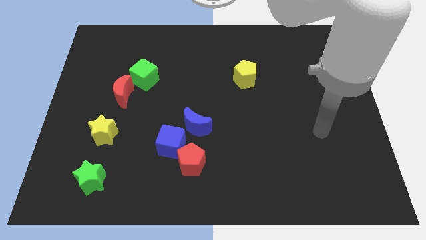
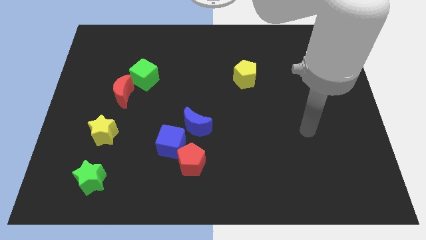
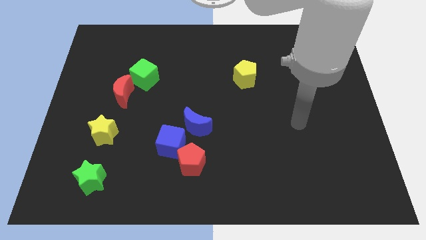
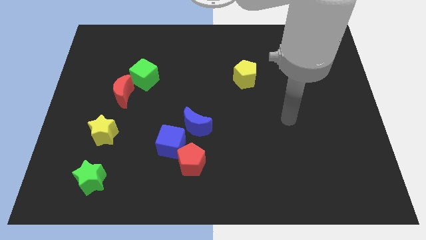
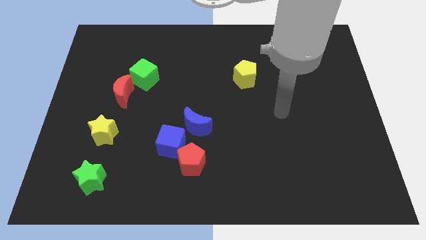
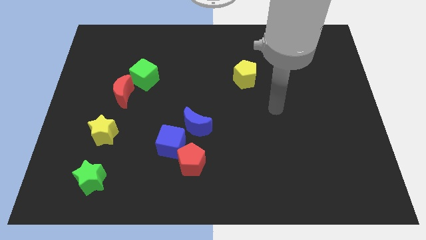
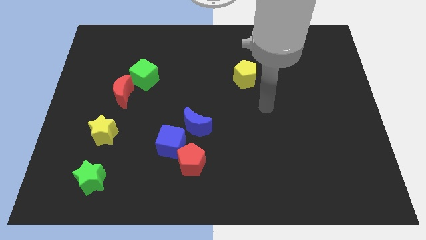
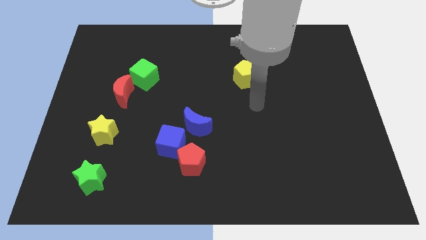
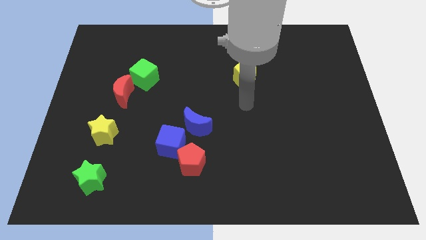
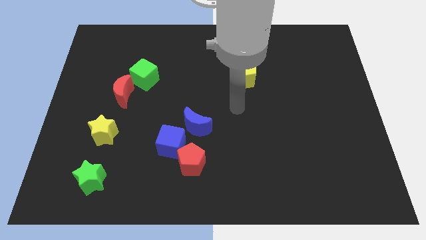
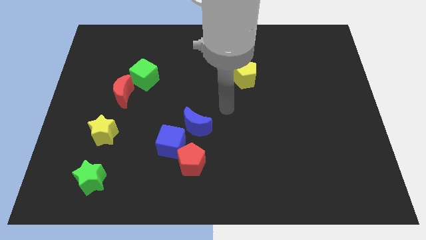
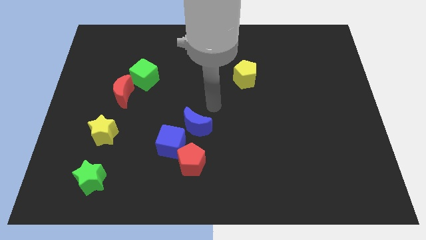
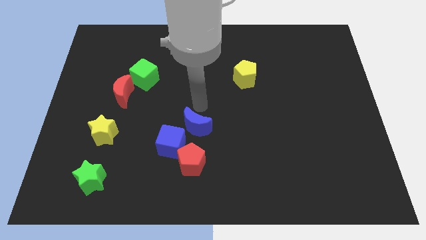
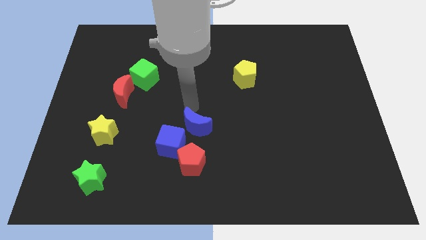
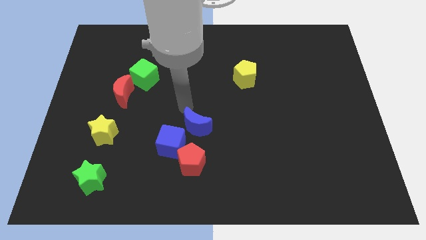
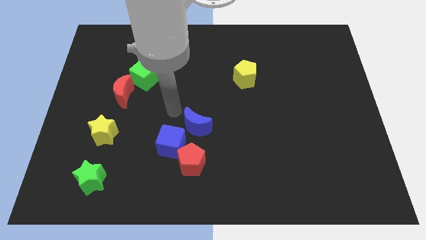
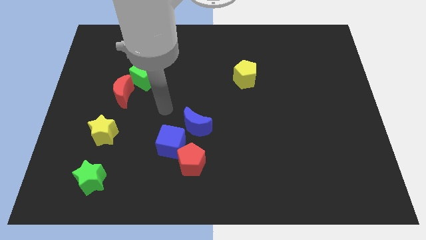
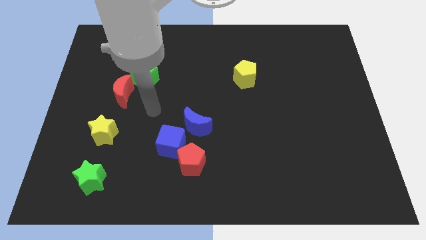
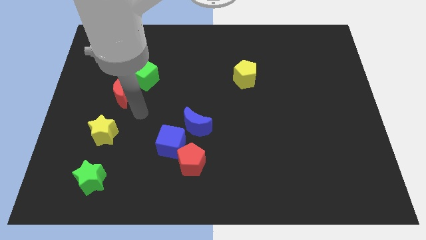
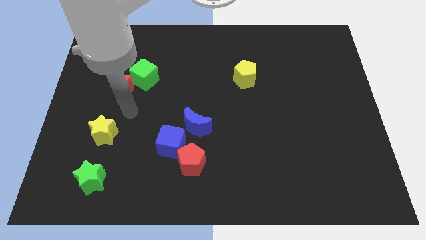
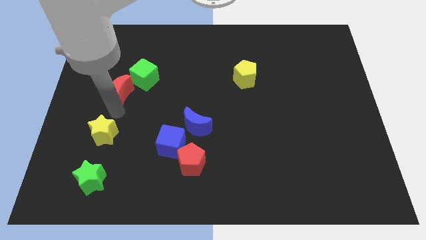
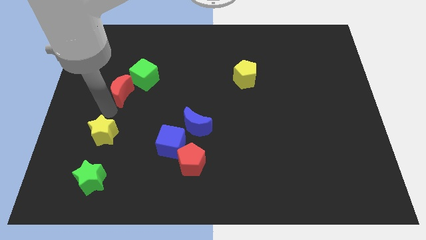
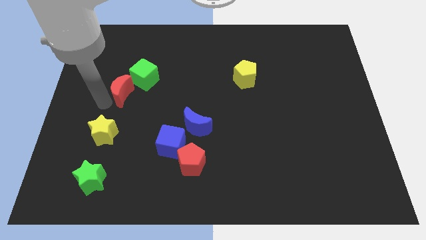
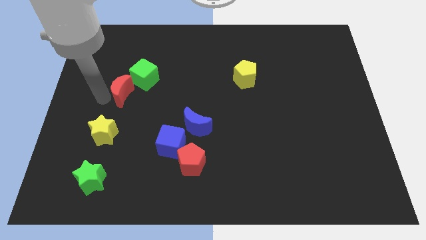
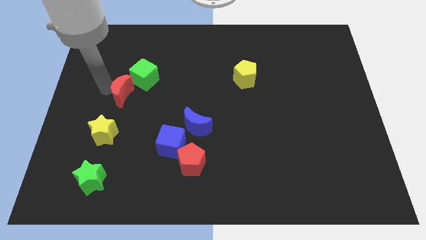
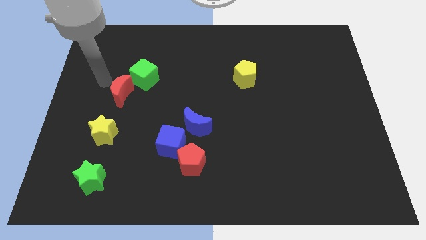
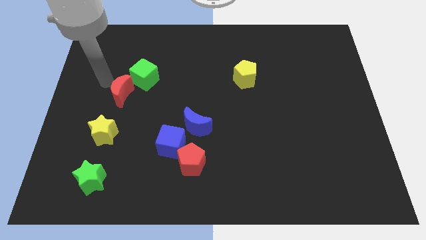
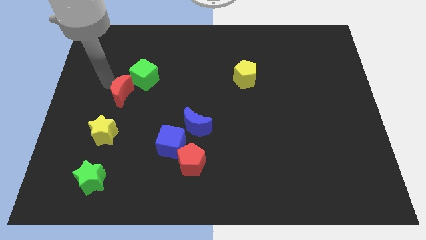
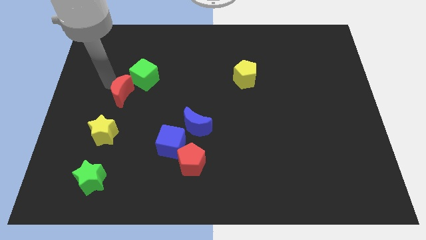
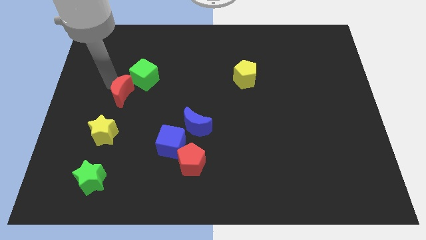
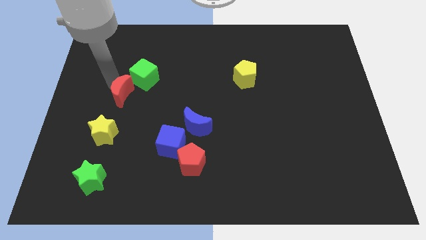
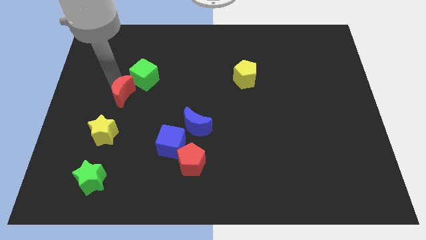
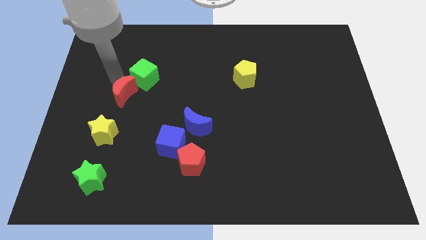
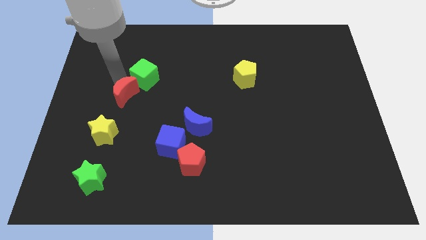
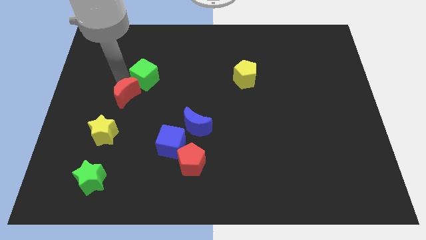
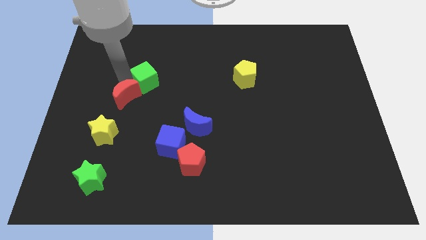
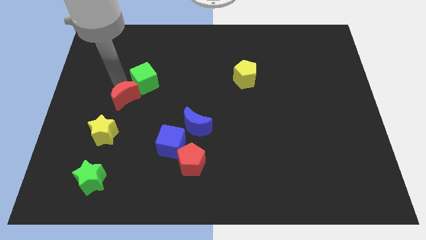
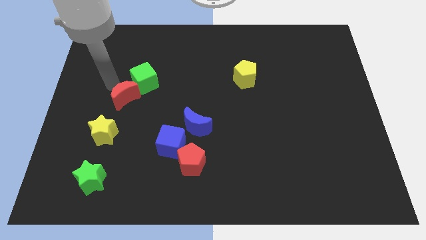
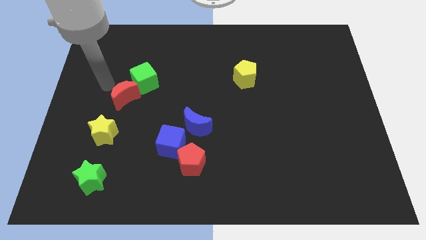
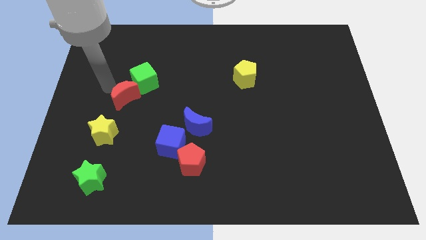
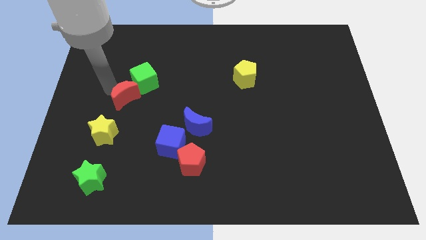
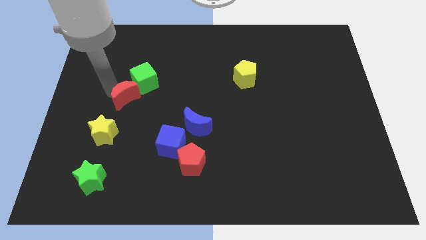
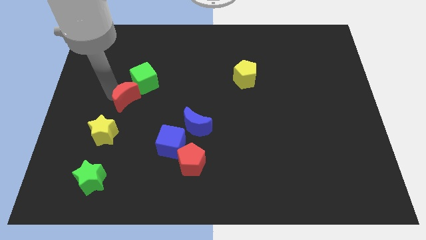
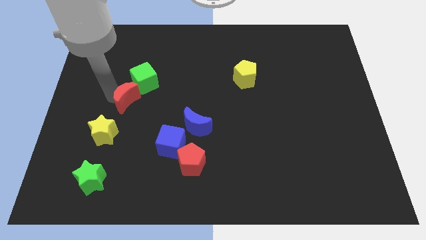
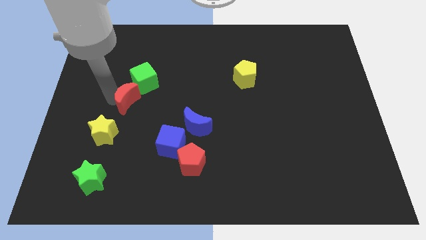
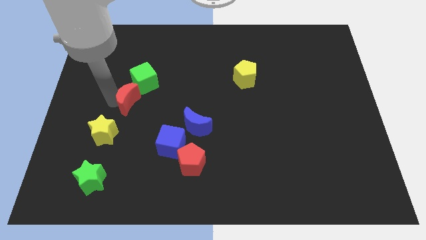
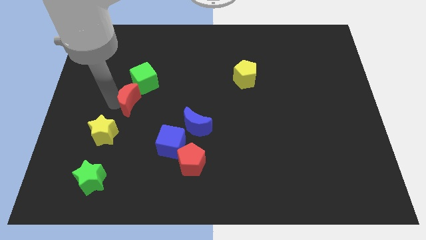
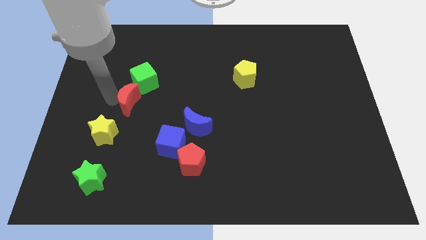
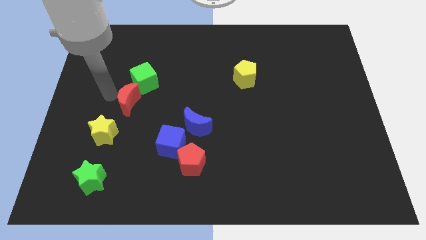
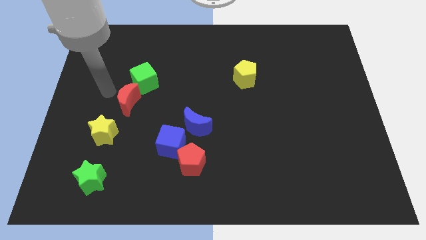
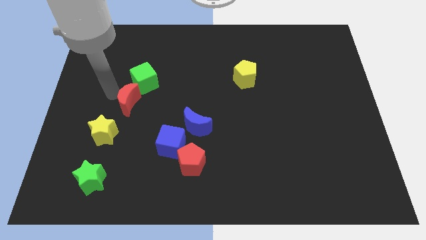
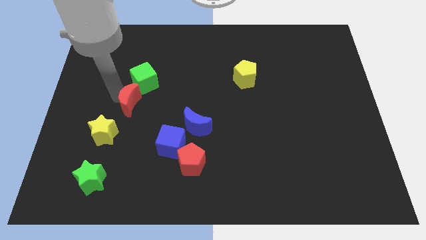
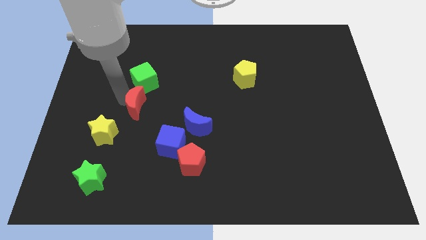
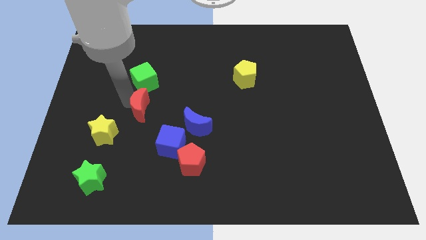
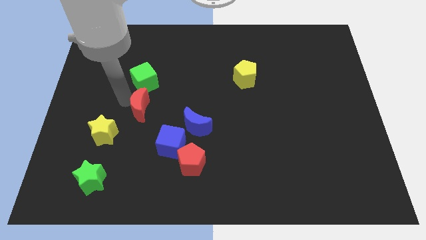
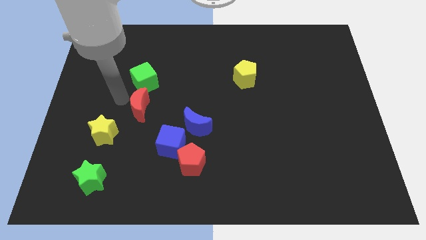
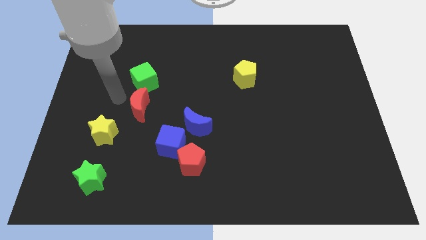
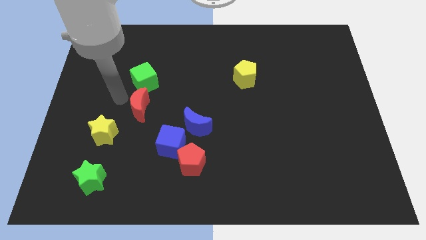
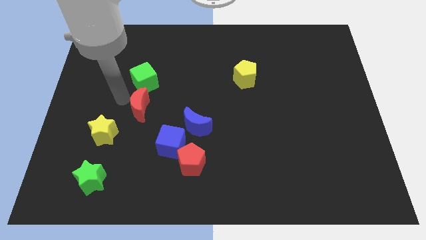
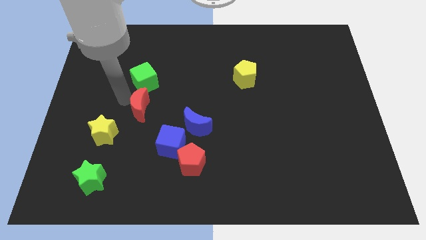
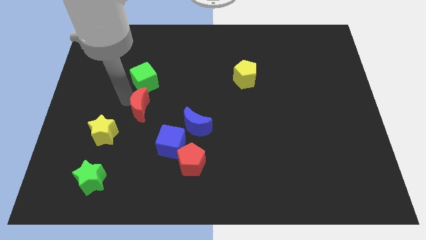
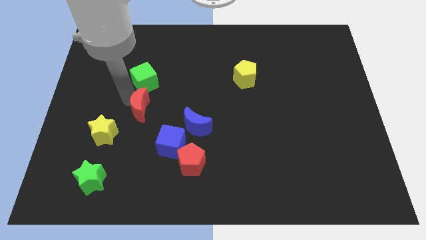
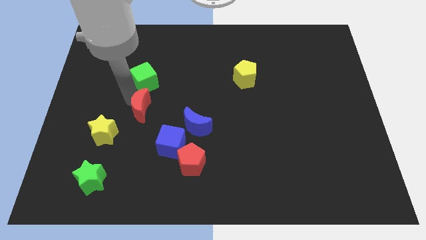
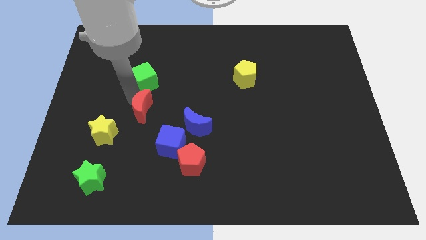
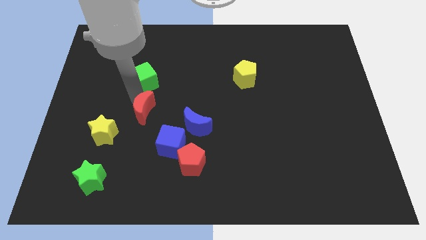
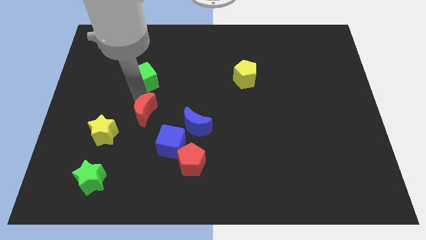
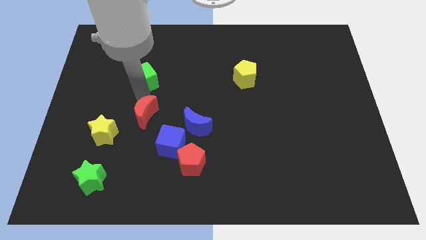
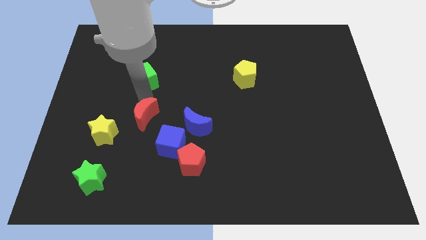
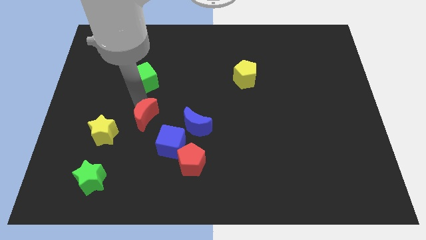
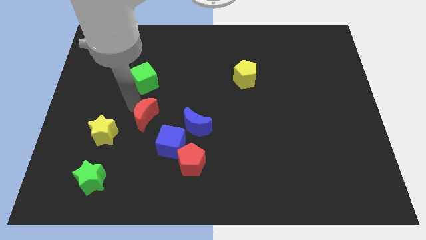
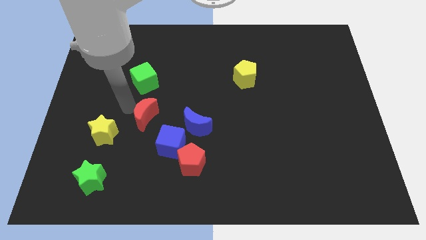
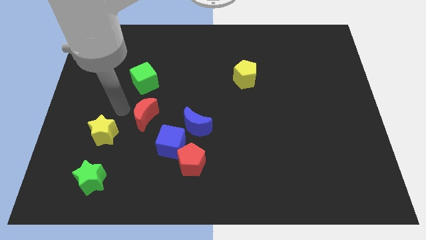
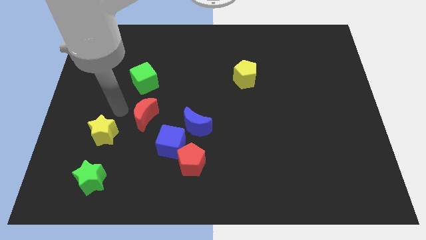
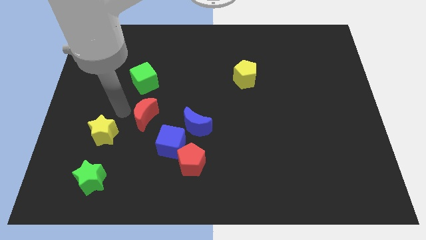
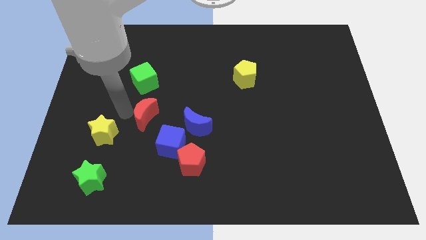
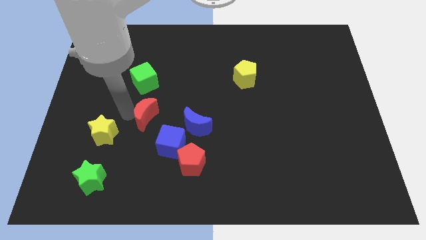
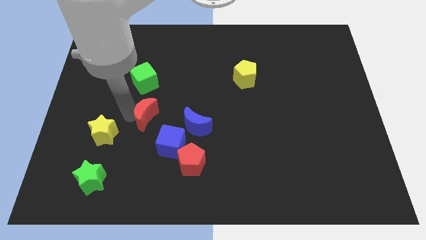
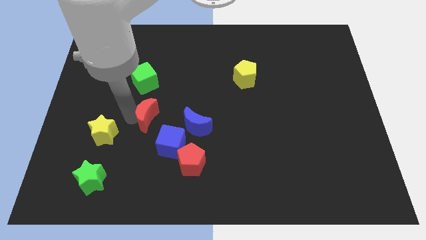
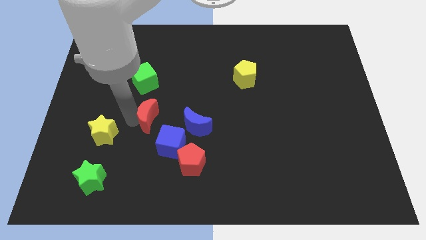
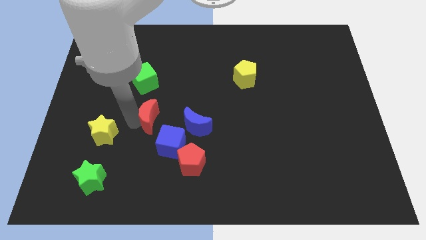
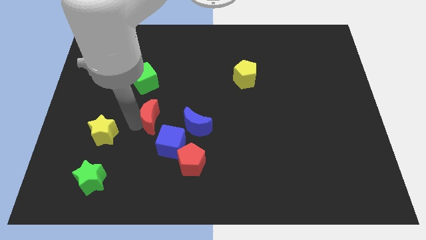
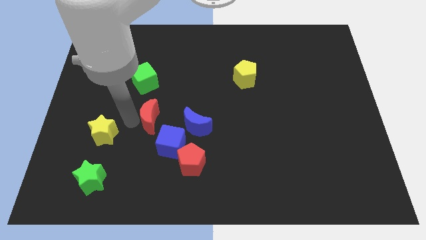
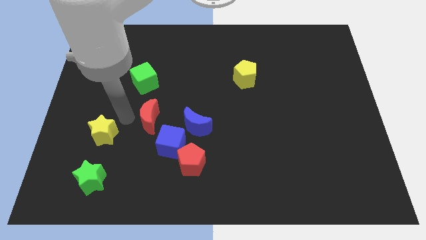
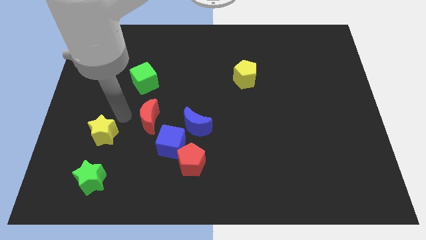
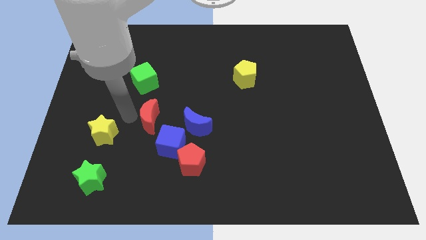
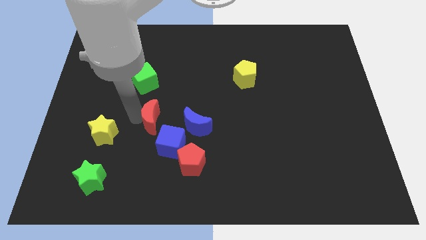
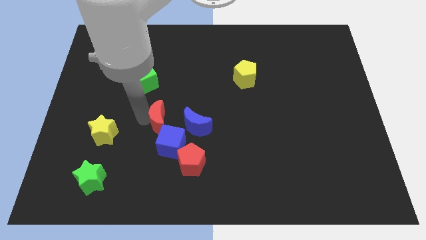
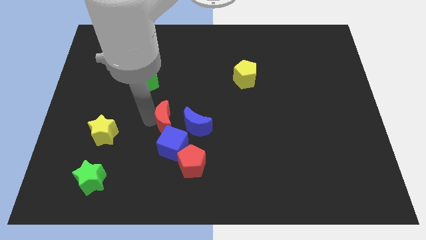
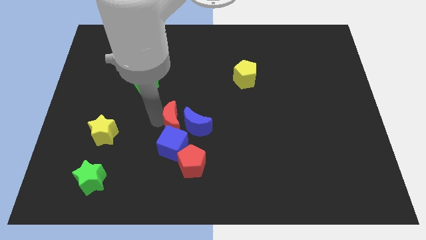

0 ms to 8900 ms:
slide the red moon towards the blue moon
